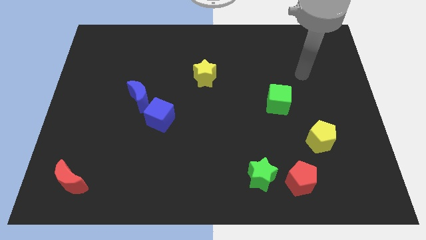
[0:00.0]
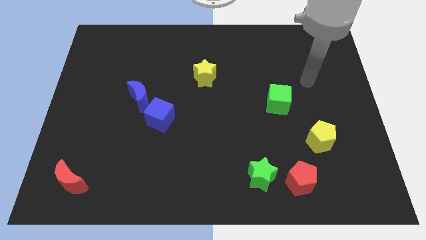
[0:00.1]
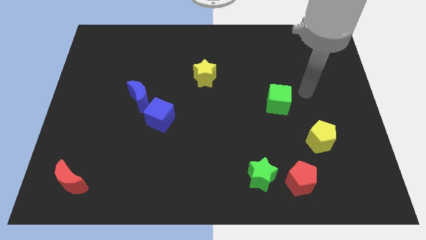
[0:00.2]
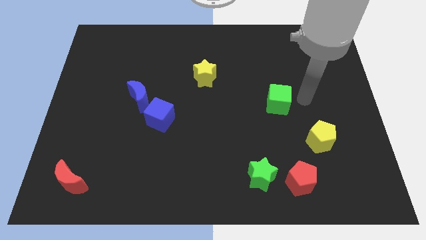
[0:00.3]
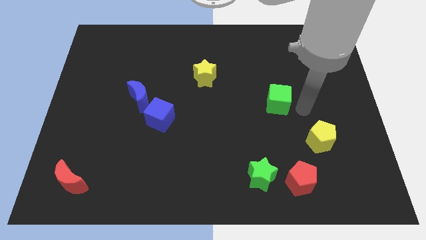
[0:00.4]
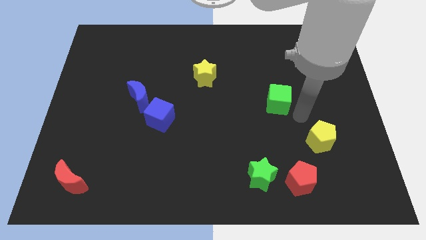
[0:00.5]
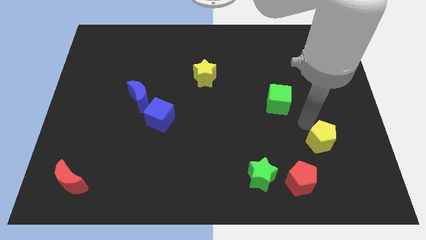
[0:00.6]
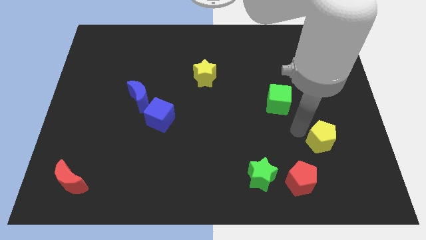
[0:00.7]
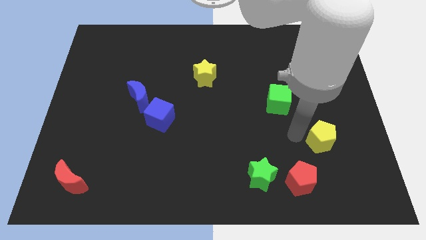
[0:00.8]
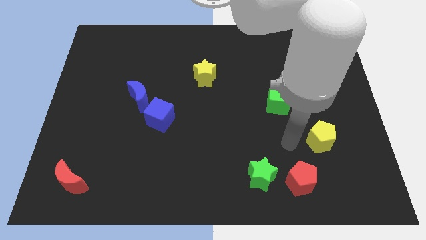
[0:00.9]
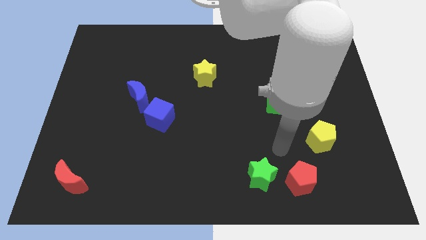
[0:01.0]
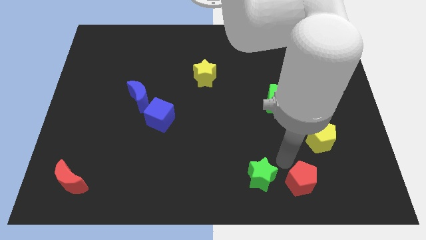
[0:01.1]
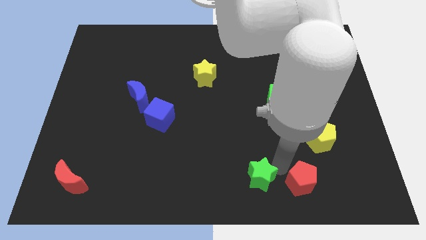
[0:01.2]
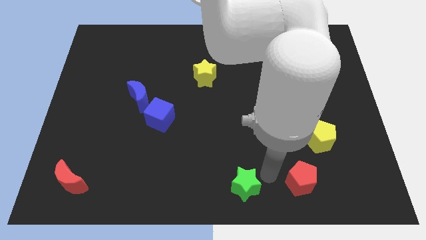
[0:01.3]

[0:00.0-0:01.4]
move the red pentagon away from the green star

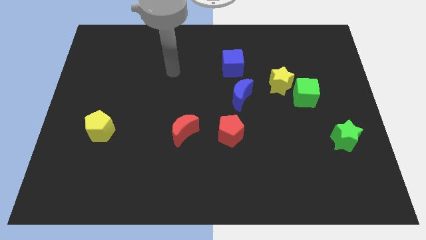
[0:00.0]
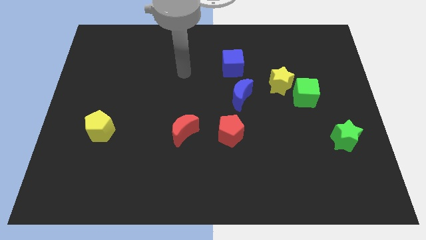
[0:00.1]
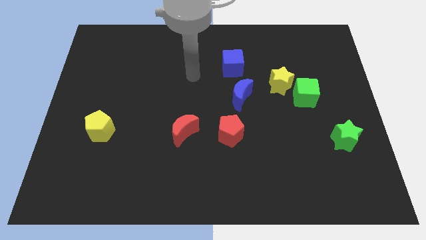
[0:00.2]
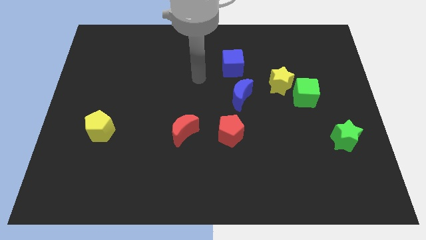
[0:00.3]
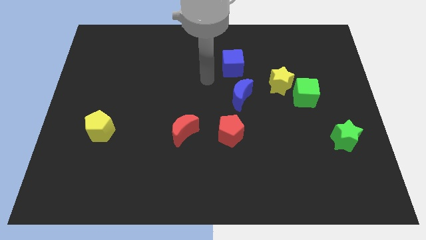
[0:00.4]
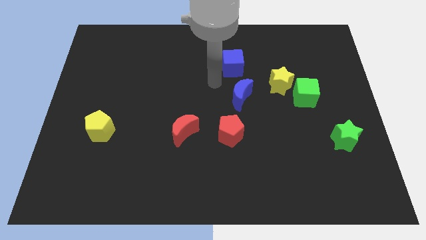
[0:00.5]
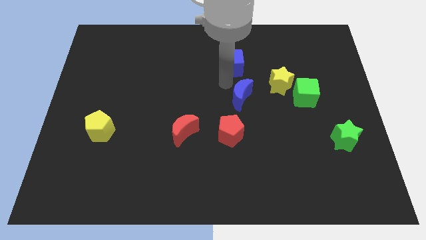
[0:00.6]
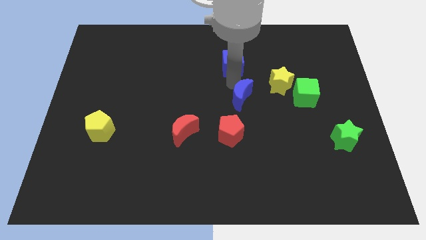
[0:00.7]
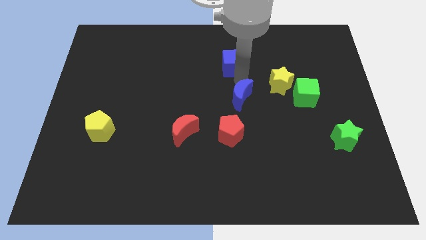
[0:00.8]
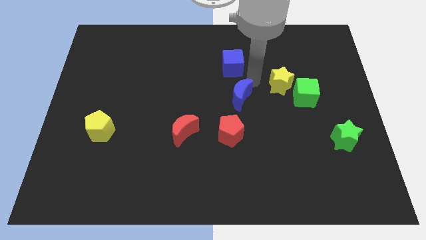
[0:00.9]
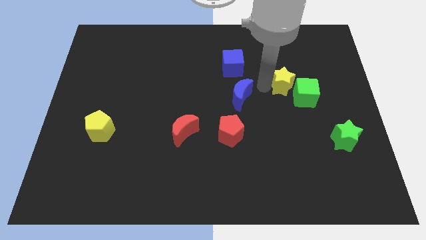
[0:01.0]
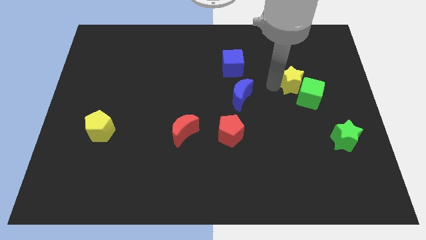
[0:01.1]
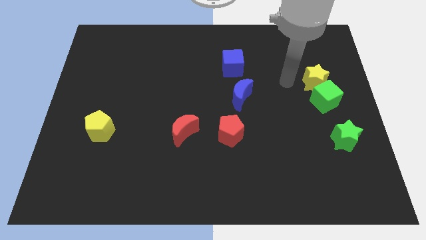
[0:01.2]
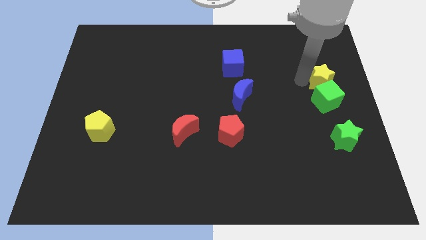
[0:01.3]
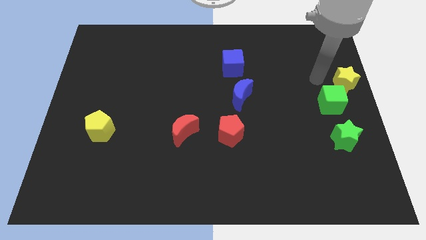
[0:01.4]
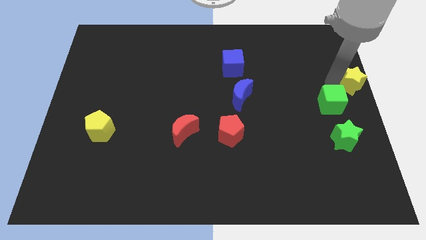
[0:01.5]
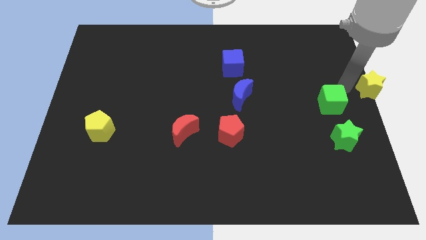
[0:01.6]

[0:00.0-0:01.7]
separate the green cube from the yellow star

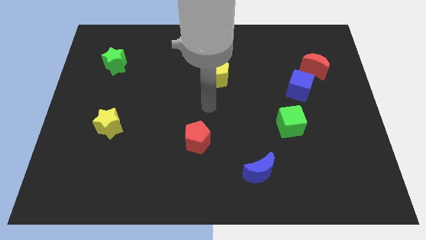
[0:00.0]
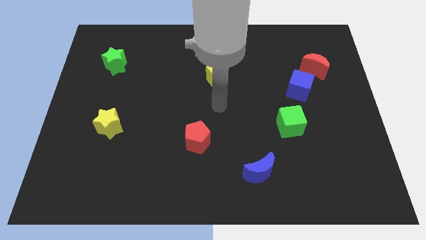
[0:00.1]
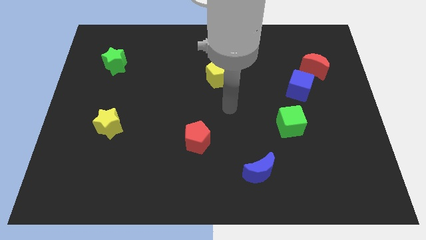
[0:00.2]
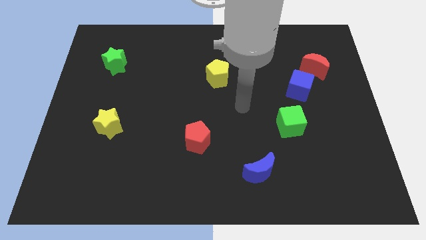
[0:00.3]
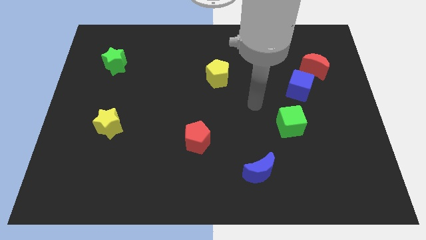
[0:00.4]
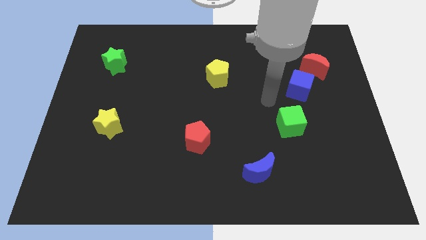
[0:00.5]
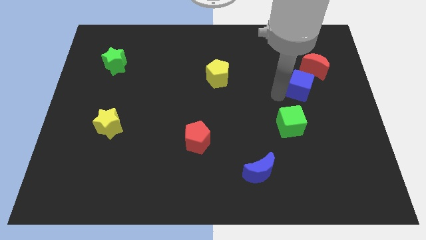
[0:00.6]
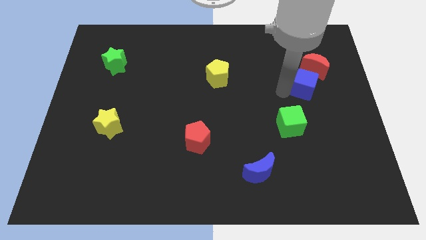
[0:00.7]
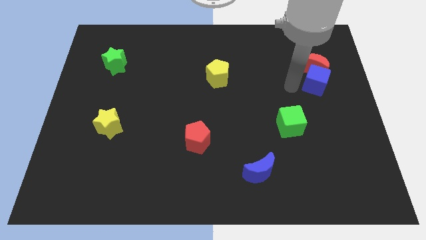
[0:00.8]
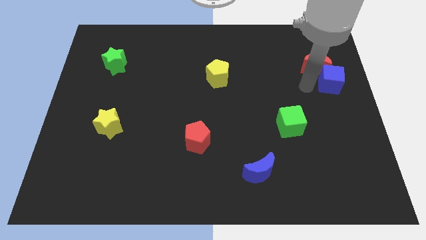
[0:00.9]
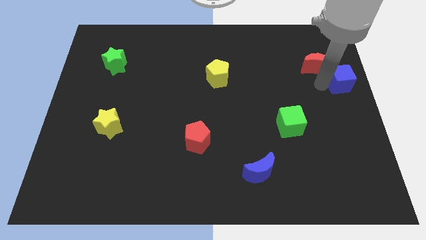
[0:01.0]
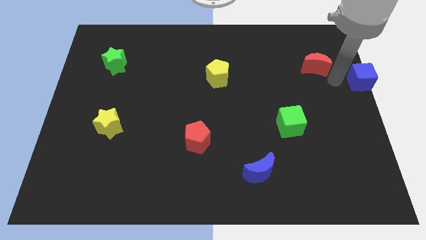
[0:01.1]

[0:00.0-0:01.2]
pull the red moon apart from the blue cube

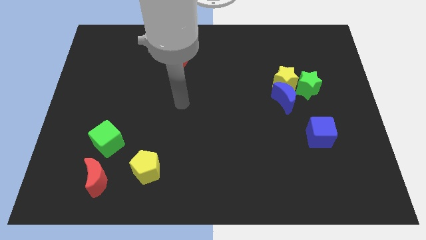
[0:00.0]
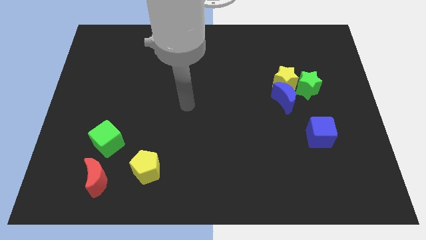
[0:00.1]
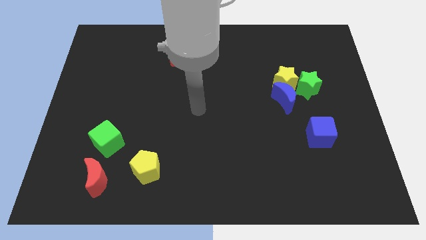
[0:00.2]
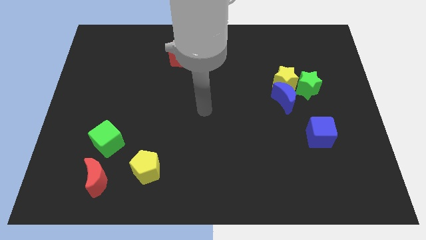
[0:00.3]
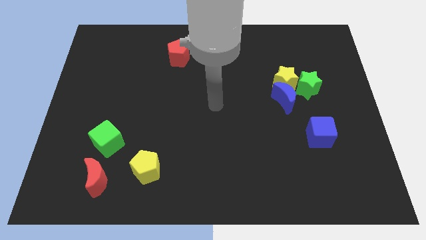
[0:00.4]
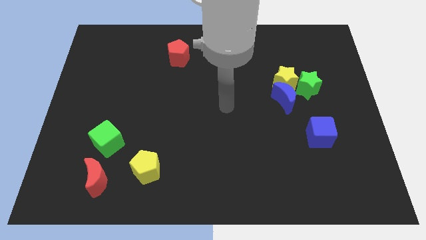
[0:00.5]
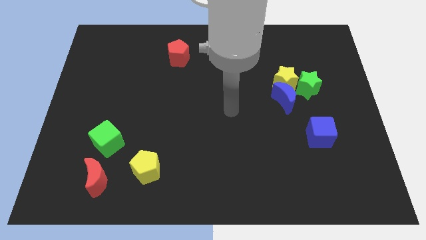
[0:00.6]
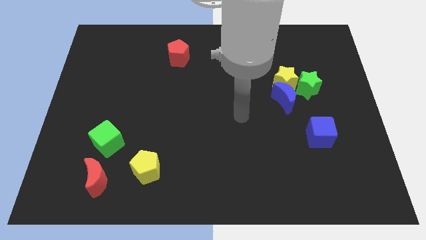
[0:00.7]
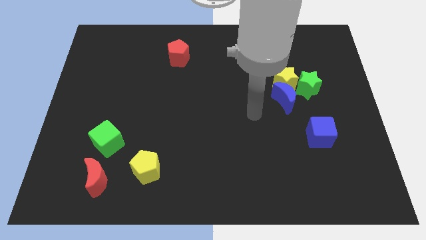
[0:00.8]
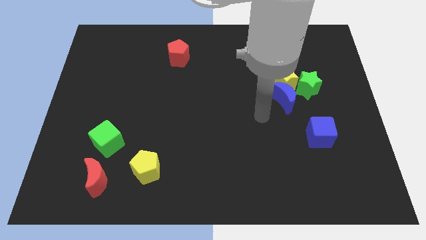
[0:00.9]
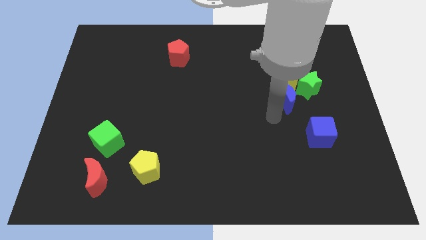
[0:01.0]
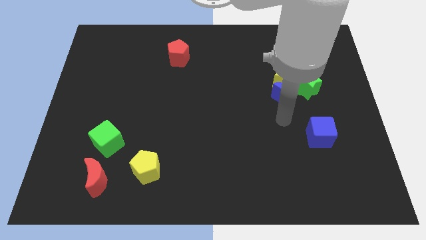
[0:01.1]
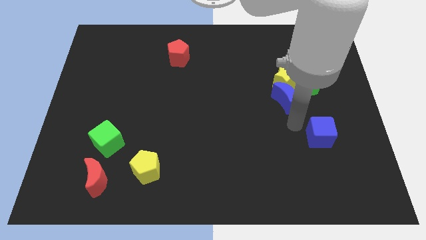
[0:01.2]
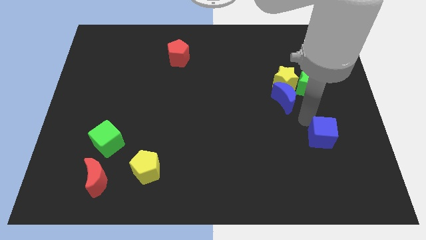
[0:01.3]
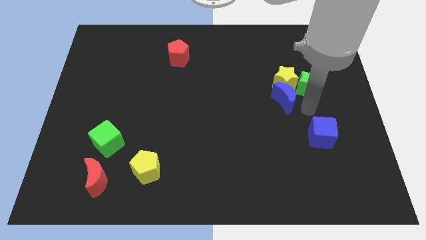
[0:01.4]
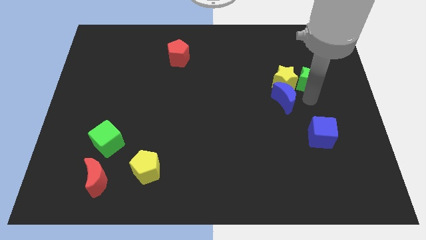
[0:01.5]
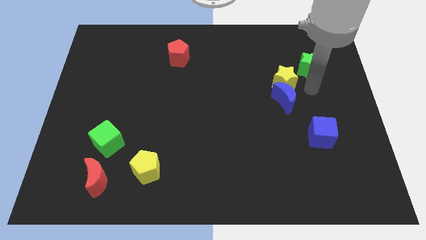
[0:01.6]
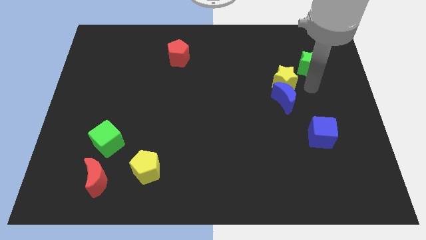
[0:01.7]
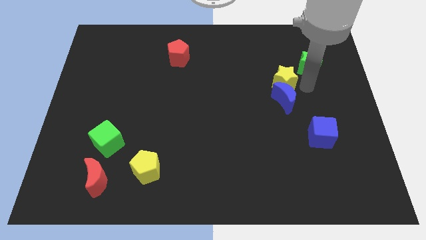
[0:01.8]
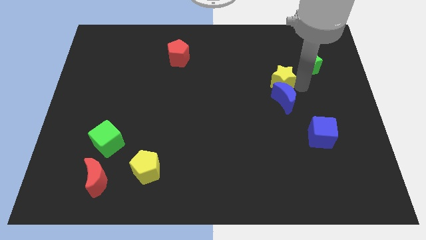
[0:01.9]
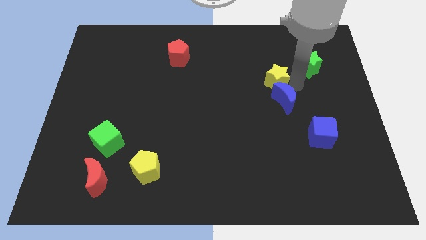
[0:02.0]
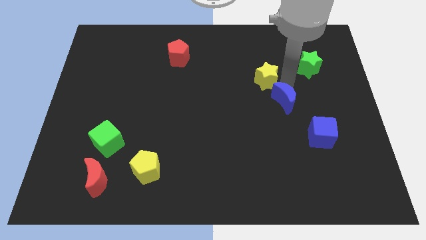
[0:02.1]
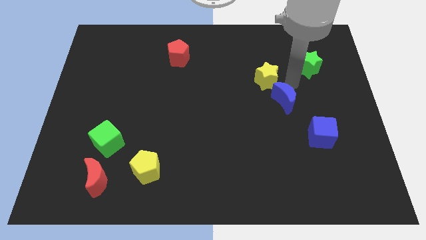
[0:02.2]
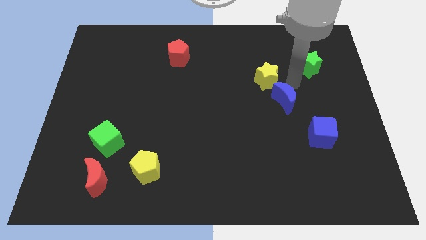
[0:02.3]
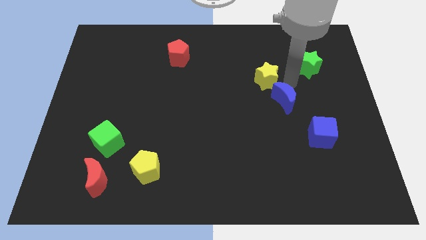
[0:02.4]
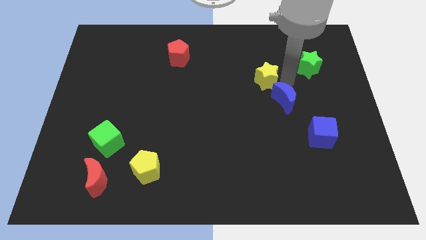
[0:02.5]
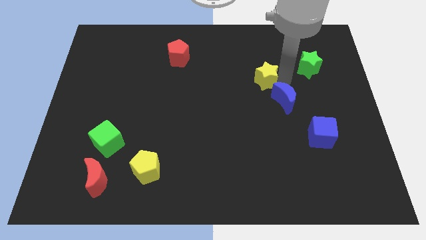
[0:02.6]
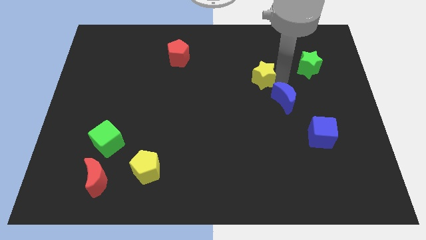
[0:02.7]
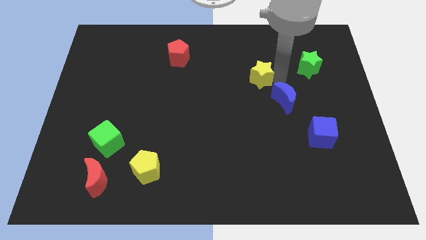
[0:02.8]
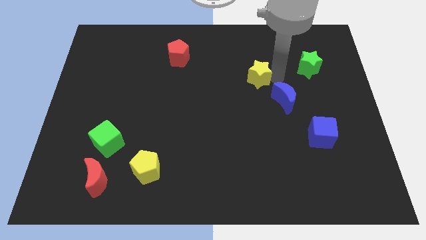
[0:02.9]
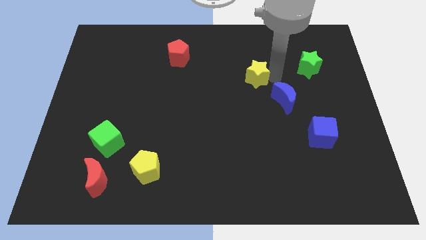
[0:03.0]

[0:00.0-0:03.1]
move the yellow star away from the blue moon and green star

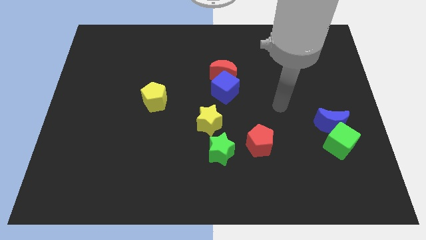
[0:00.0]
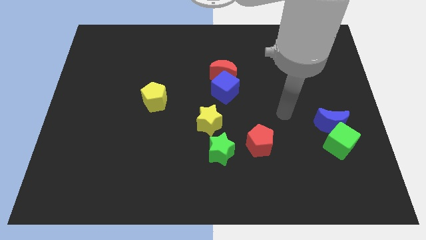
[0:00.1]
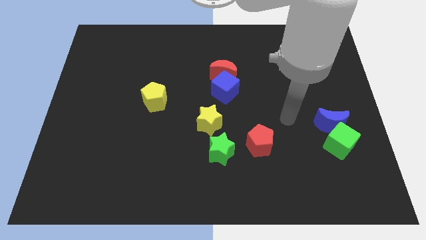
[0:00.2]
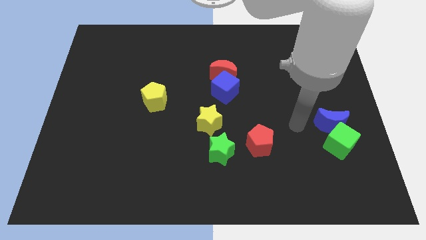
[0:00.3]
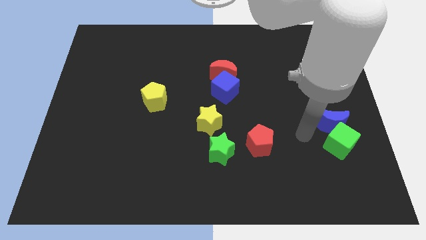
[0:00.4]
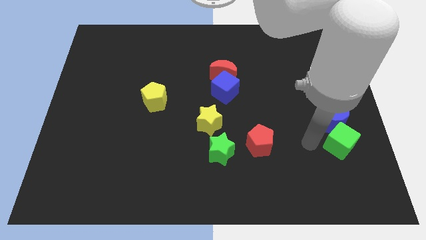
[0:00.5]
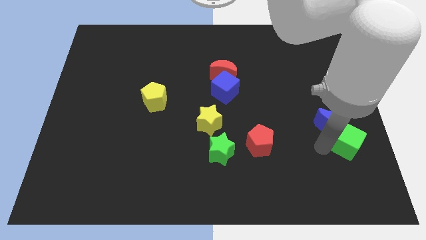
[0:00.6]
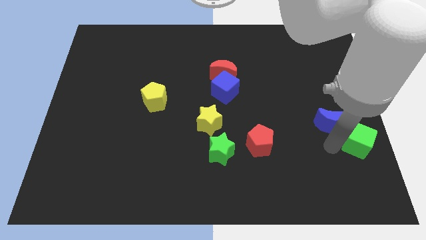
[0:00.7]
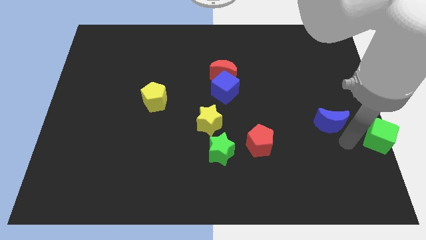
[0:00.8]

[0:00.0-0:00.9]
move the blue moon away from the green cube

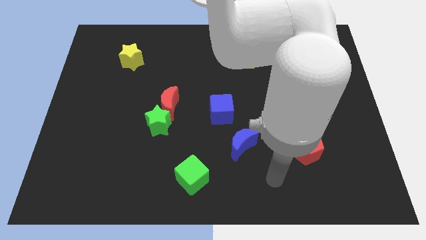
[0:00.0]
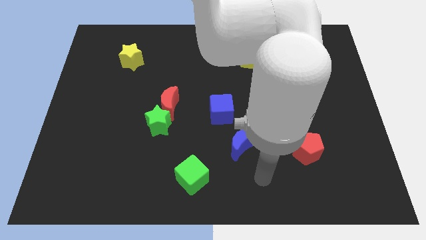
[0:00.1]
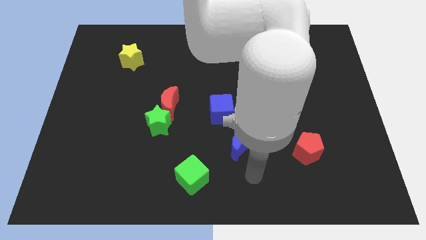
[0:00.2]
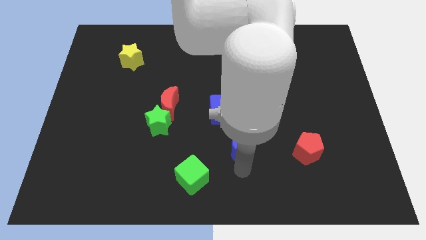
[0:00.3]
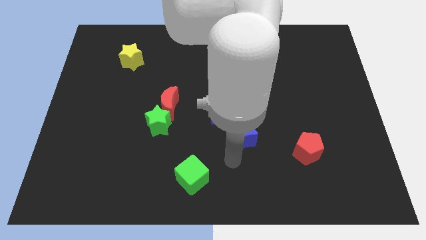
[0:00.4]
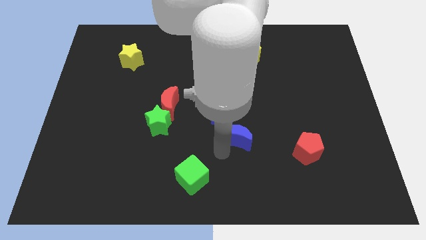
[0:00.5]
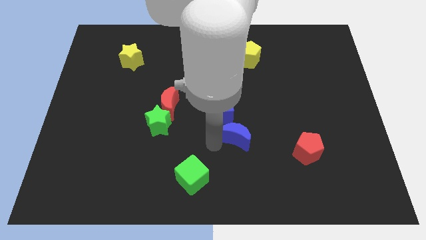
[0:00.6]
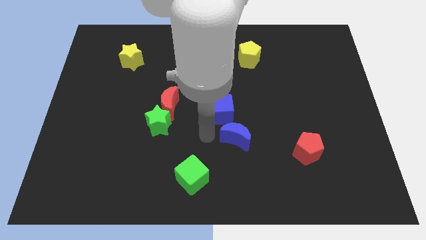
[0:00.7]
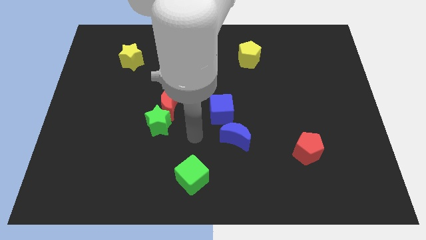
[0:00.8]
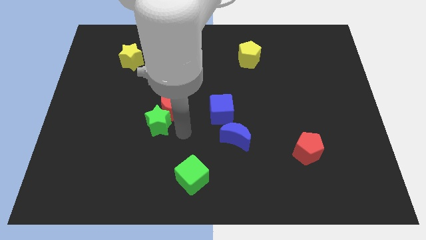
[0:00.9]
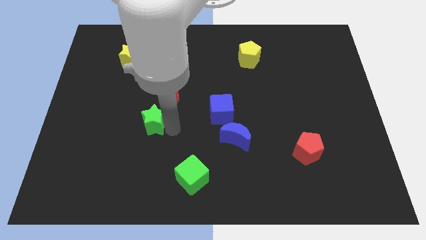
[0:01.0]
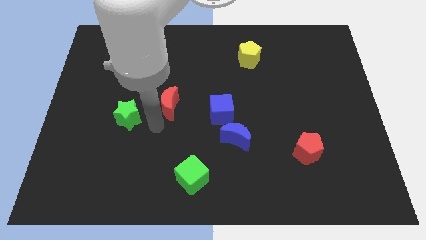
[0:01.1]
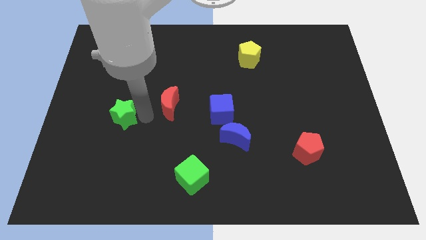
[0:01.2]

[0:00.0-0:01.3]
pull the red moon apart from the green star
